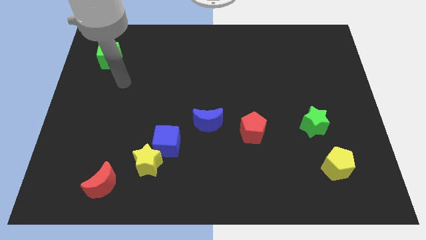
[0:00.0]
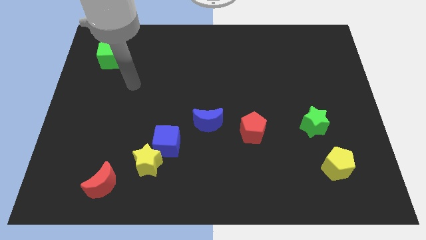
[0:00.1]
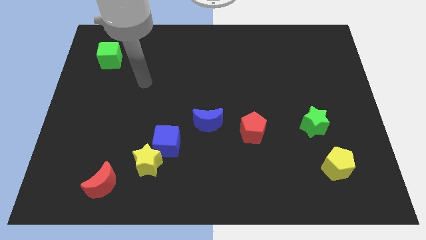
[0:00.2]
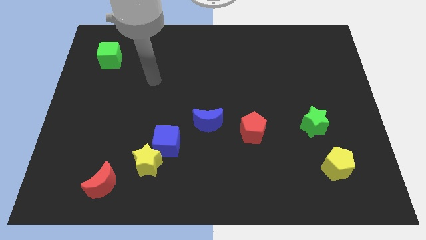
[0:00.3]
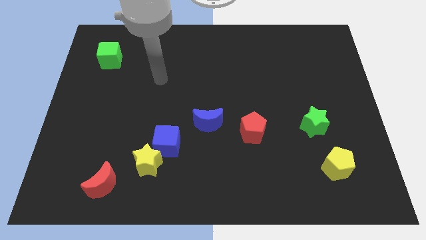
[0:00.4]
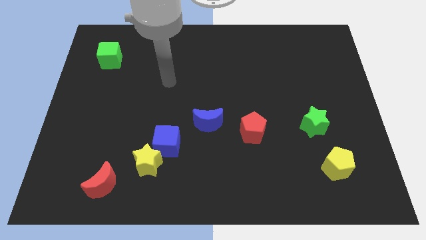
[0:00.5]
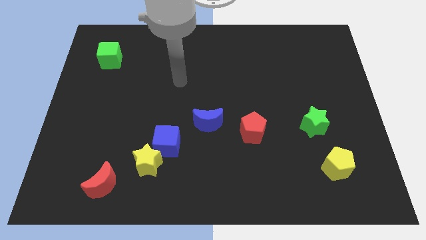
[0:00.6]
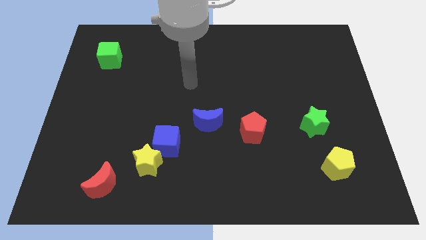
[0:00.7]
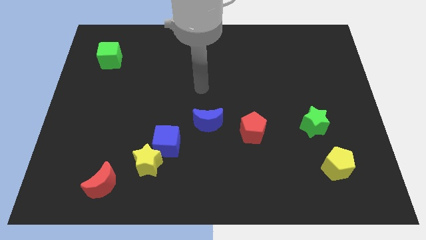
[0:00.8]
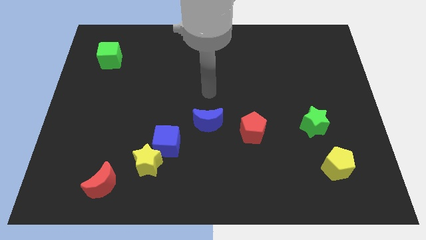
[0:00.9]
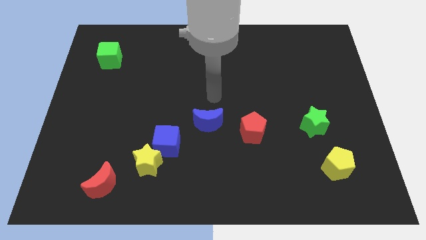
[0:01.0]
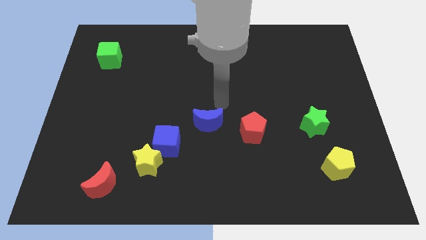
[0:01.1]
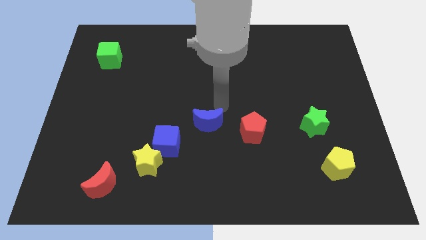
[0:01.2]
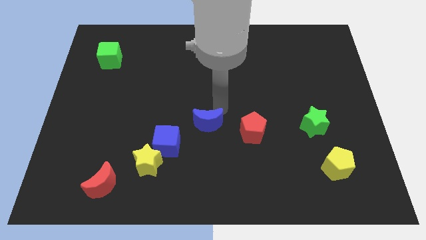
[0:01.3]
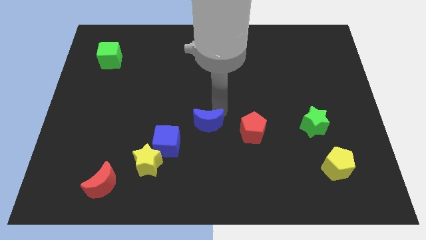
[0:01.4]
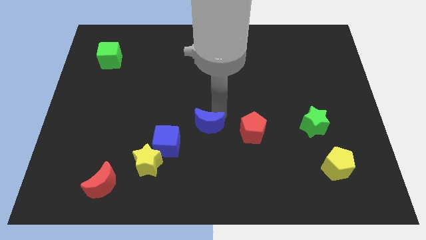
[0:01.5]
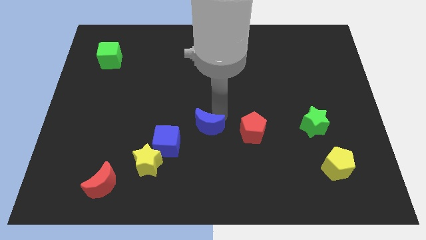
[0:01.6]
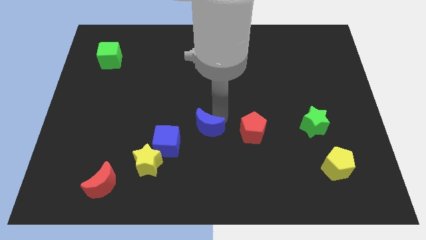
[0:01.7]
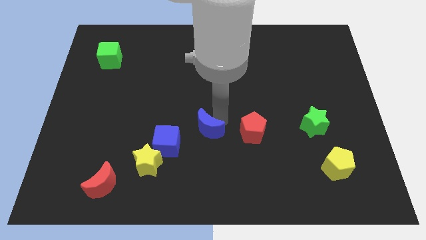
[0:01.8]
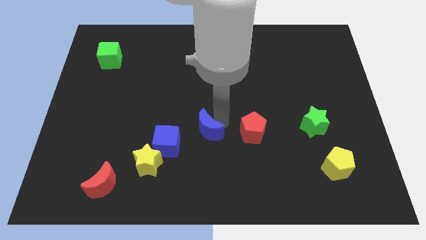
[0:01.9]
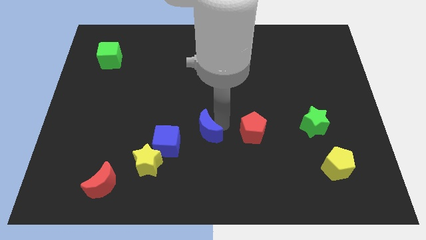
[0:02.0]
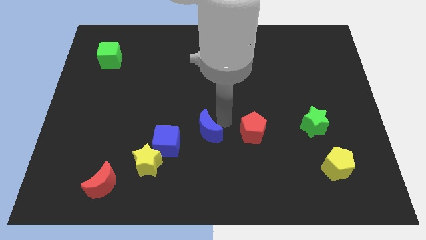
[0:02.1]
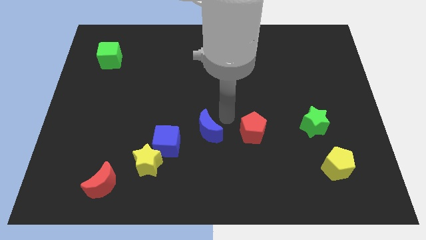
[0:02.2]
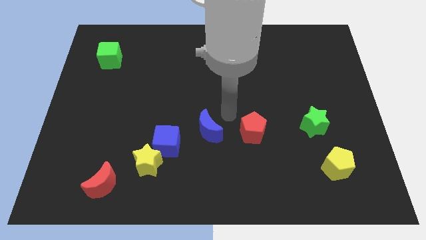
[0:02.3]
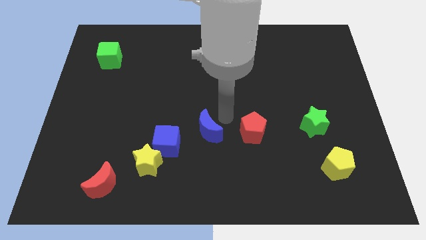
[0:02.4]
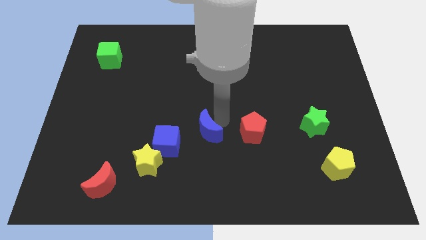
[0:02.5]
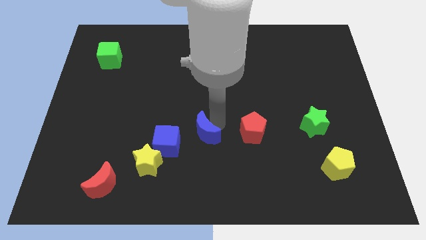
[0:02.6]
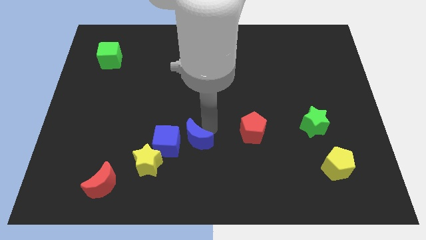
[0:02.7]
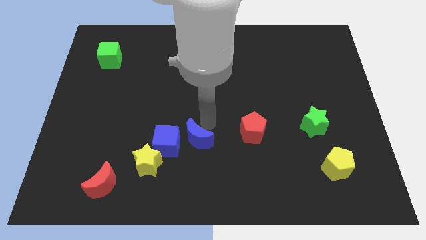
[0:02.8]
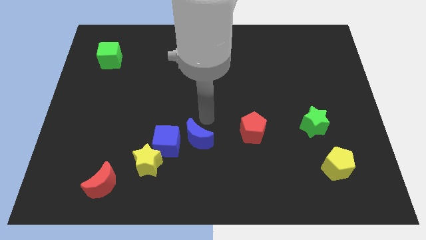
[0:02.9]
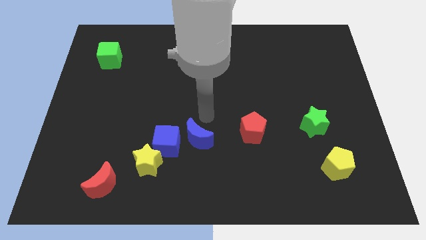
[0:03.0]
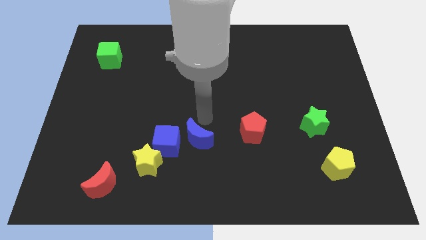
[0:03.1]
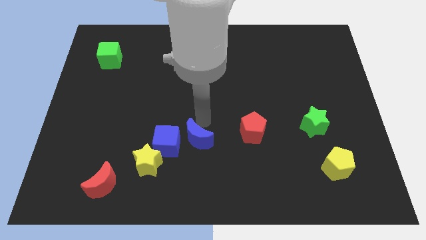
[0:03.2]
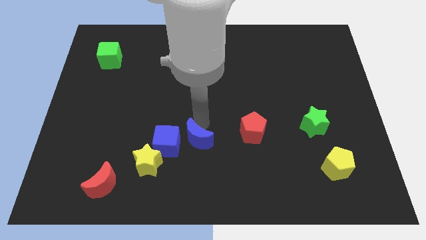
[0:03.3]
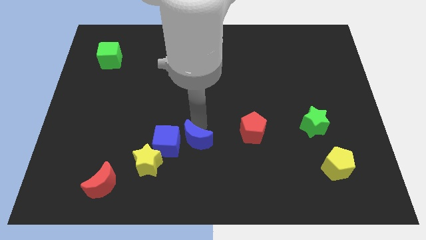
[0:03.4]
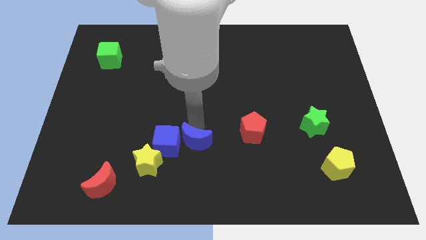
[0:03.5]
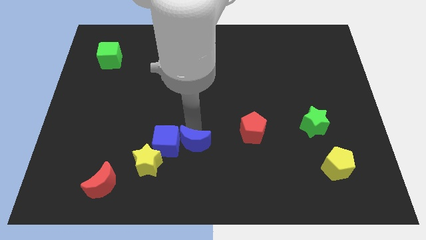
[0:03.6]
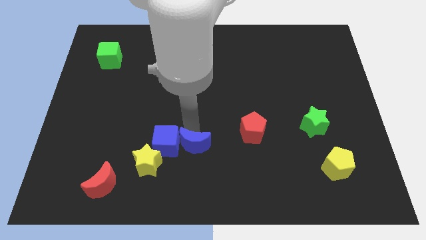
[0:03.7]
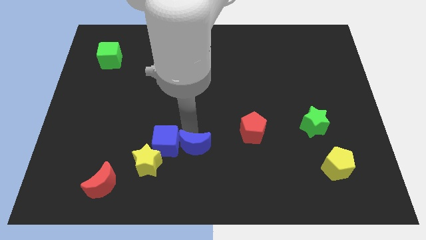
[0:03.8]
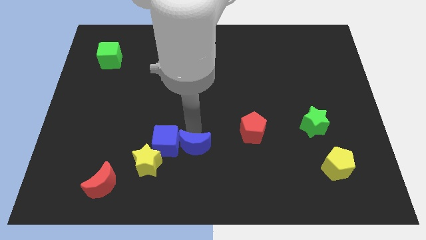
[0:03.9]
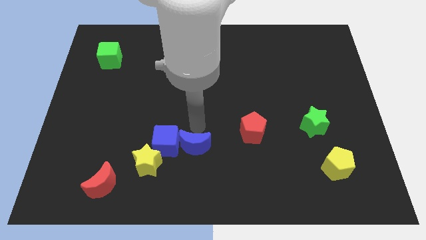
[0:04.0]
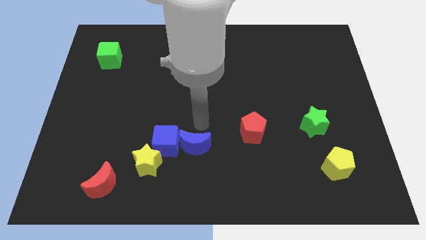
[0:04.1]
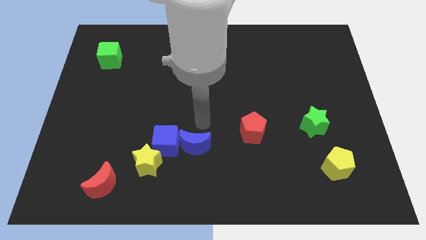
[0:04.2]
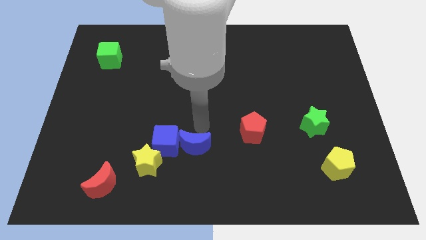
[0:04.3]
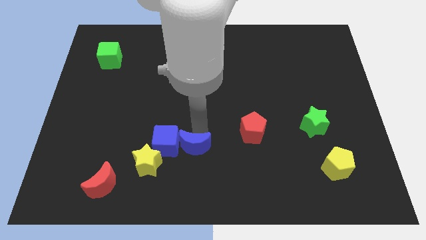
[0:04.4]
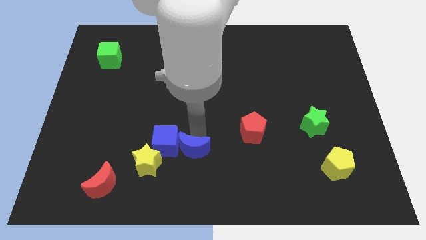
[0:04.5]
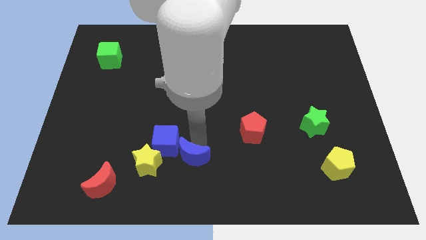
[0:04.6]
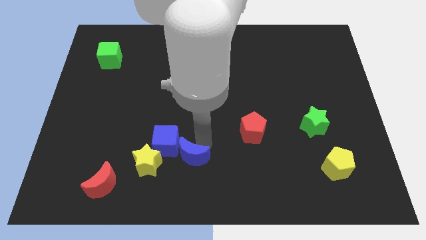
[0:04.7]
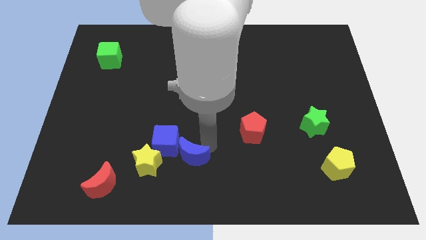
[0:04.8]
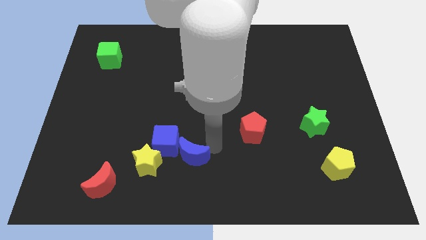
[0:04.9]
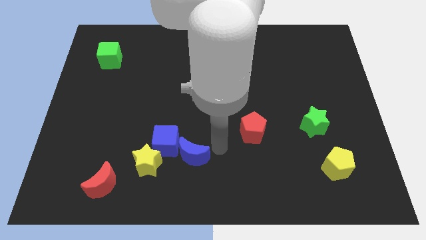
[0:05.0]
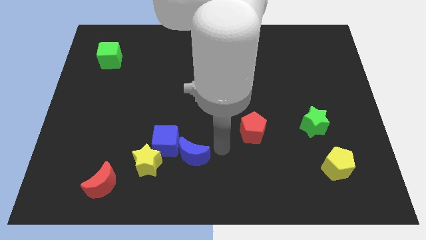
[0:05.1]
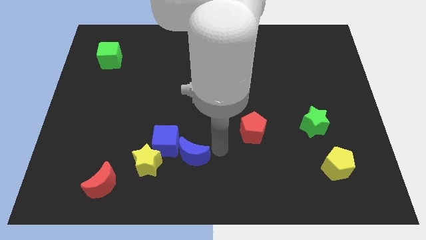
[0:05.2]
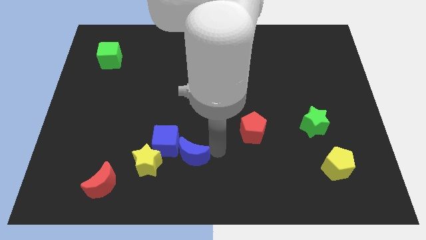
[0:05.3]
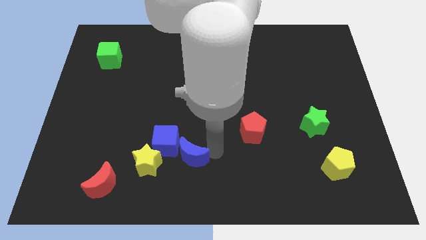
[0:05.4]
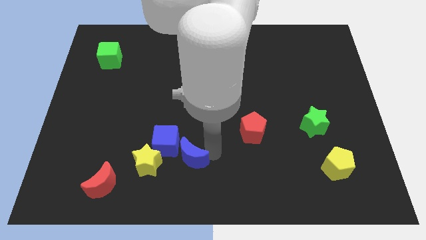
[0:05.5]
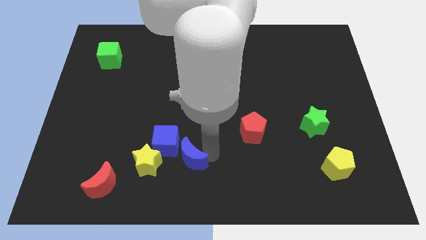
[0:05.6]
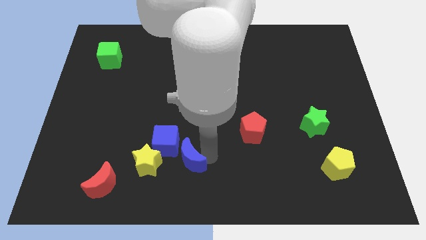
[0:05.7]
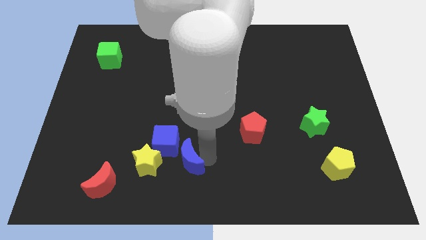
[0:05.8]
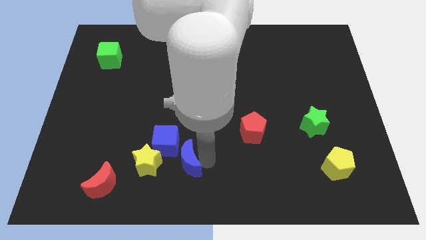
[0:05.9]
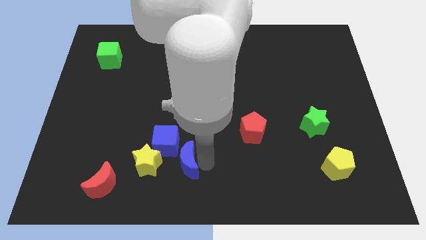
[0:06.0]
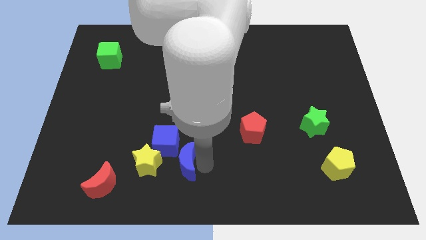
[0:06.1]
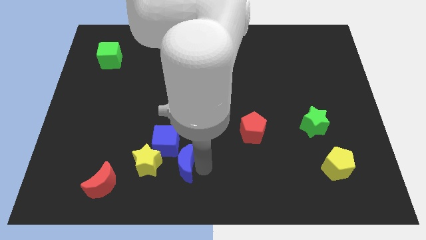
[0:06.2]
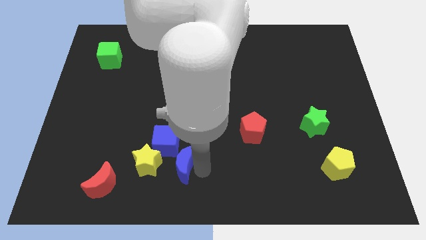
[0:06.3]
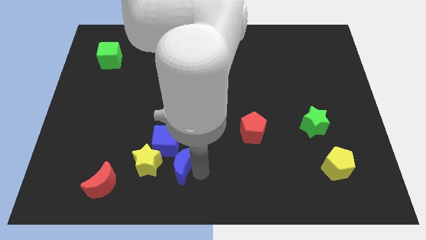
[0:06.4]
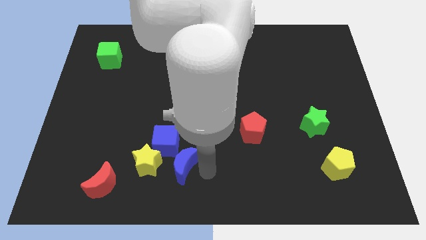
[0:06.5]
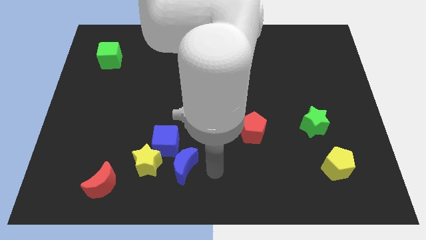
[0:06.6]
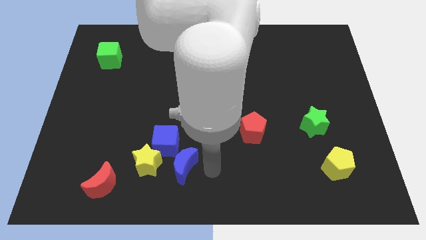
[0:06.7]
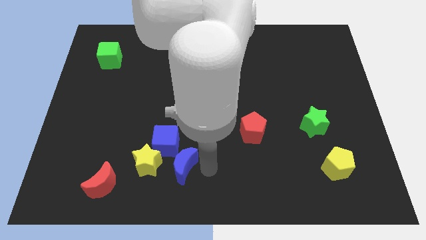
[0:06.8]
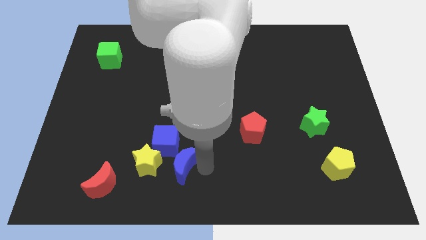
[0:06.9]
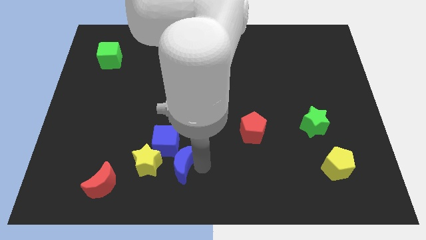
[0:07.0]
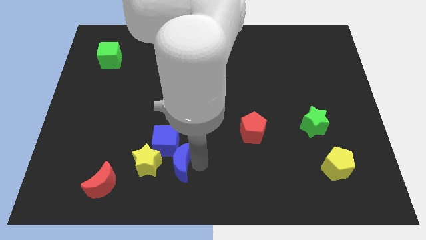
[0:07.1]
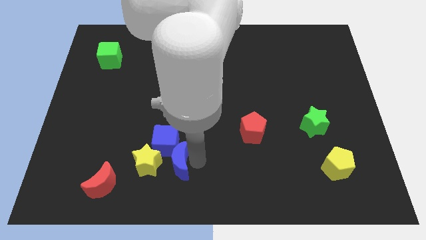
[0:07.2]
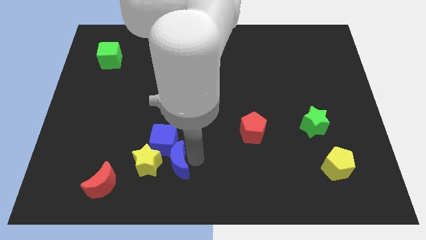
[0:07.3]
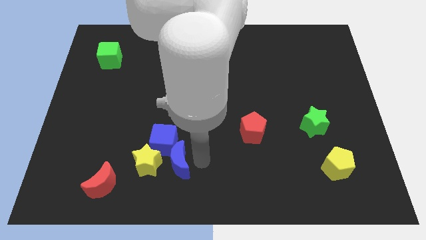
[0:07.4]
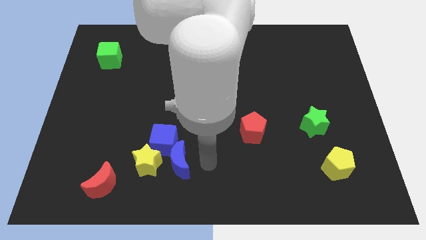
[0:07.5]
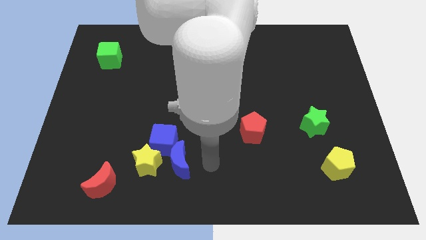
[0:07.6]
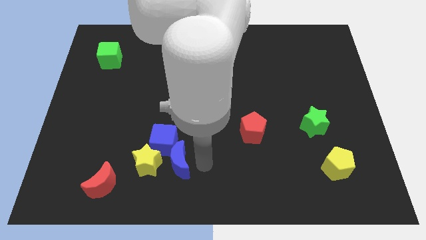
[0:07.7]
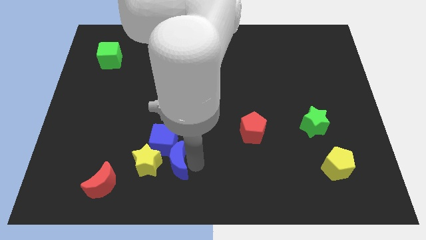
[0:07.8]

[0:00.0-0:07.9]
slide the blue moon next to the yellow star
